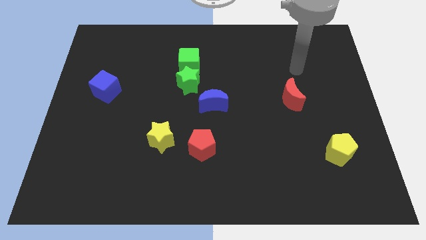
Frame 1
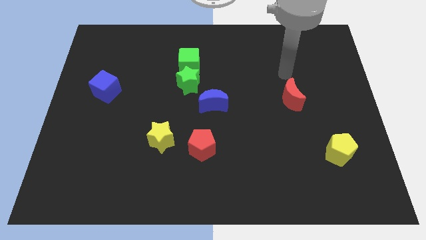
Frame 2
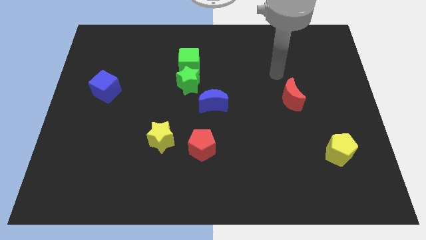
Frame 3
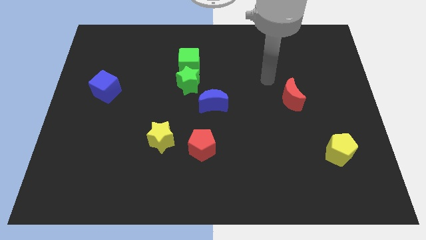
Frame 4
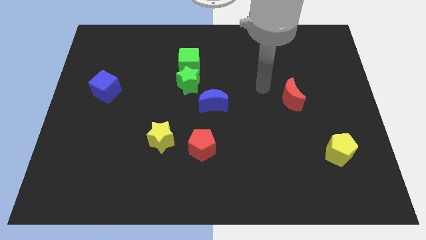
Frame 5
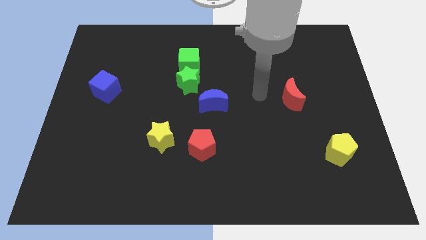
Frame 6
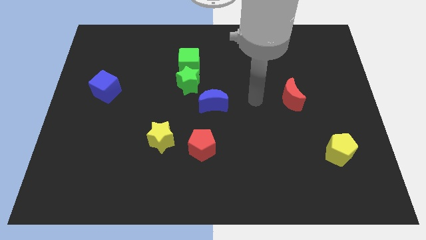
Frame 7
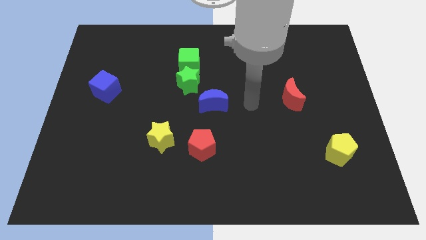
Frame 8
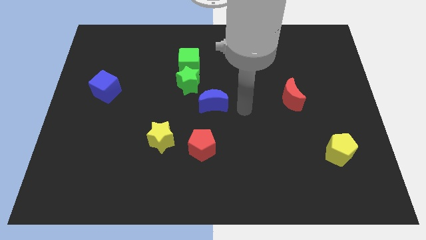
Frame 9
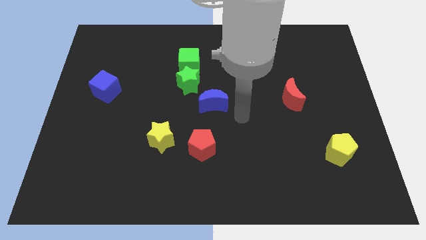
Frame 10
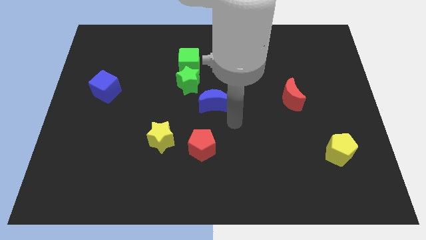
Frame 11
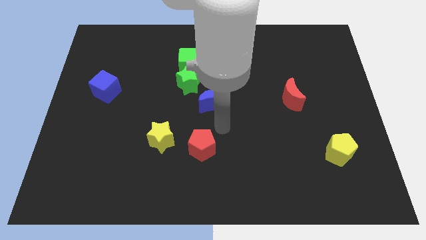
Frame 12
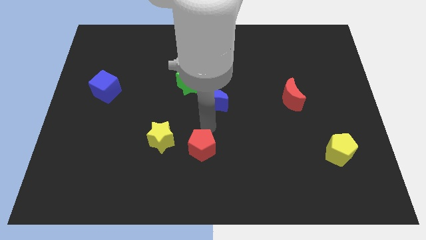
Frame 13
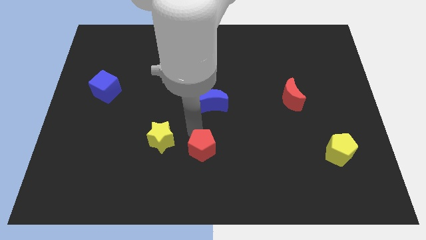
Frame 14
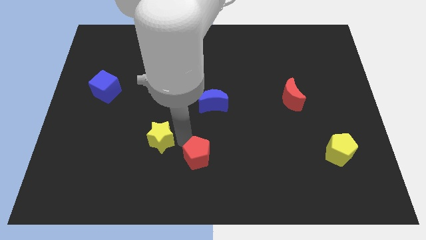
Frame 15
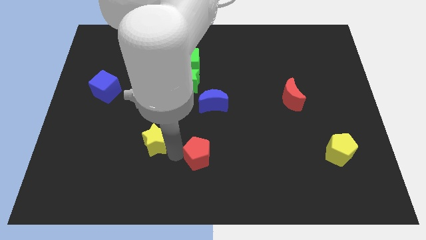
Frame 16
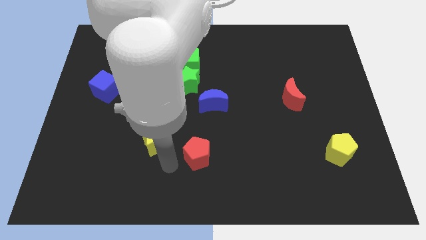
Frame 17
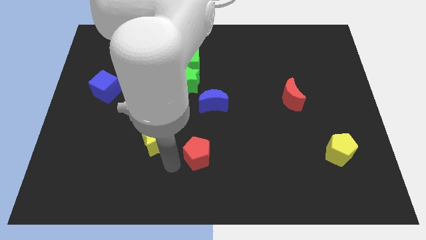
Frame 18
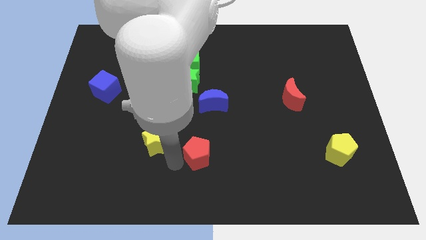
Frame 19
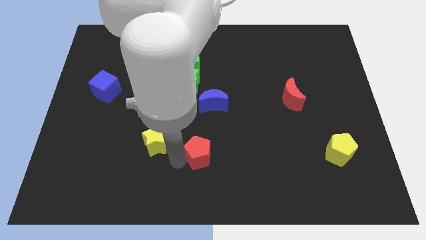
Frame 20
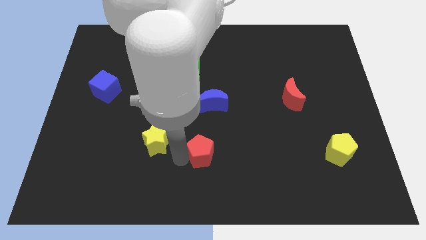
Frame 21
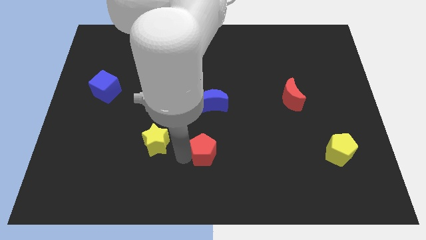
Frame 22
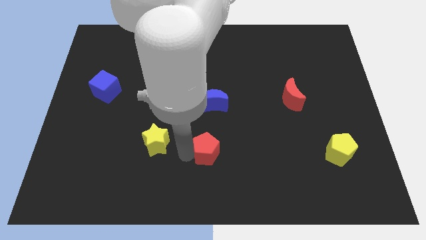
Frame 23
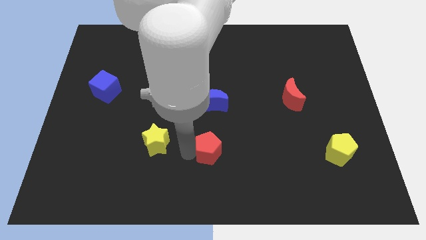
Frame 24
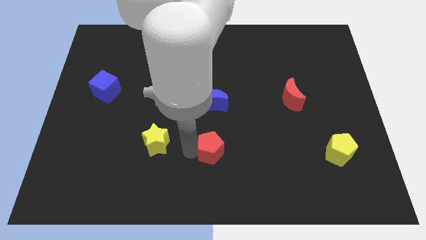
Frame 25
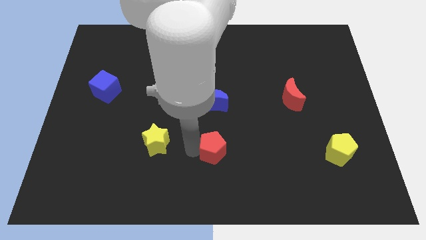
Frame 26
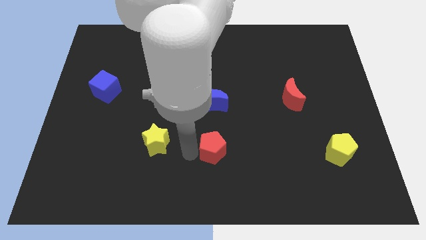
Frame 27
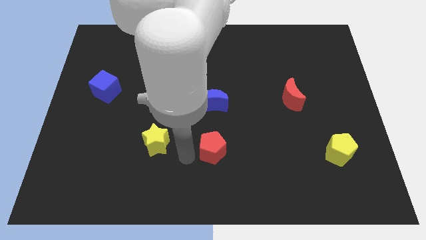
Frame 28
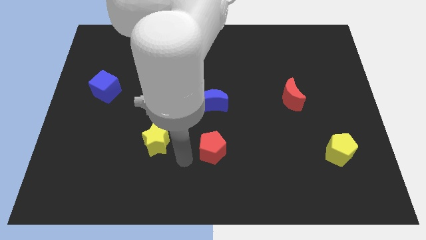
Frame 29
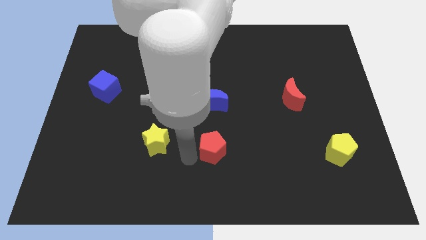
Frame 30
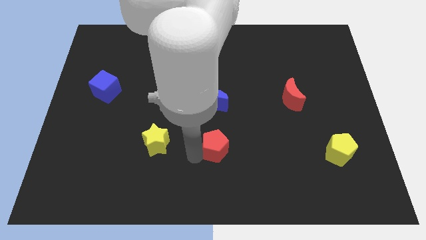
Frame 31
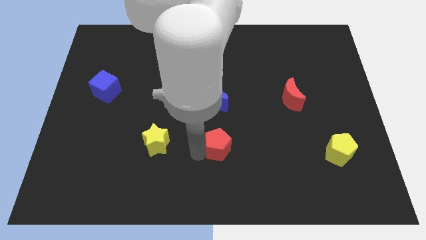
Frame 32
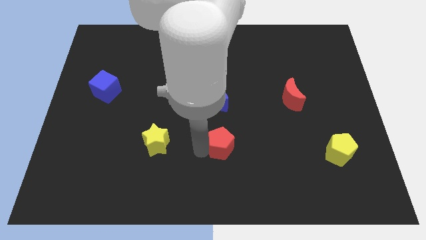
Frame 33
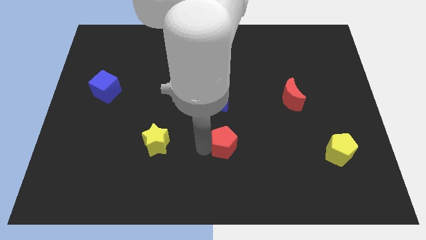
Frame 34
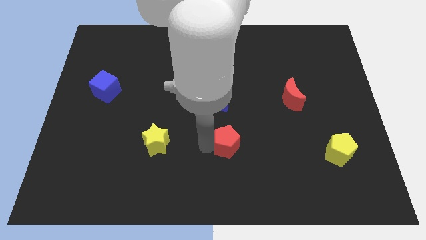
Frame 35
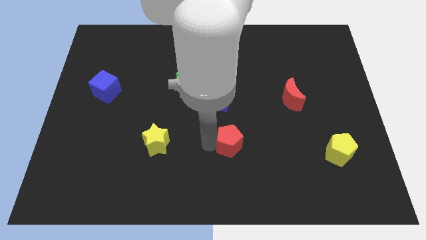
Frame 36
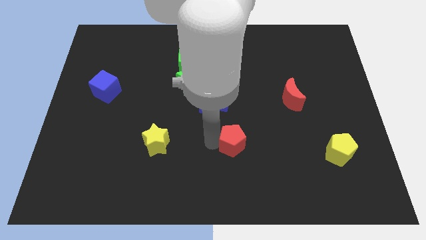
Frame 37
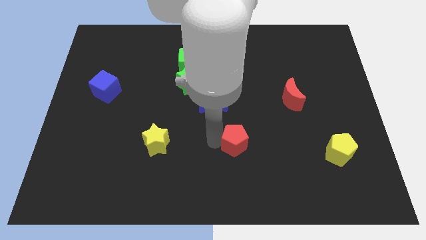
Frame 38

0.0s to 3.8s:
push the red pentagon right a bit

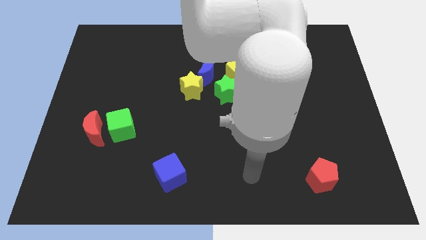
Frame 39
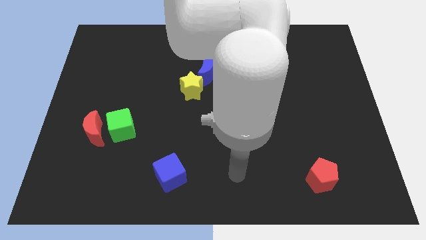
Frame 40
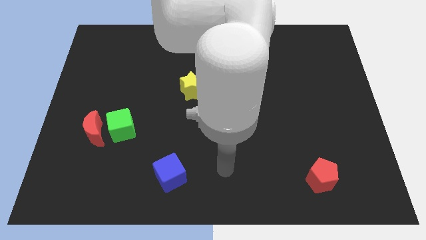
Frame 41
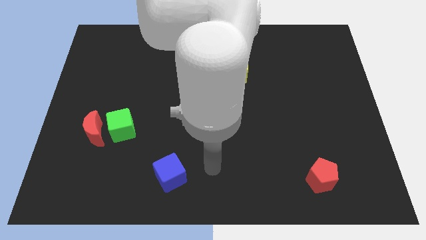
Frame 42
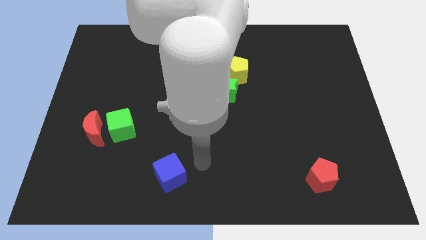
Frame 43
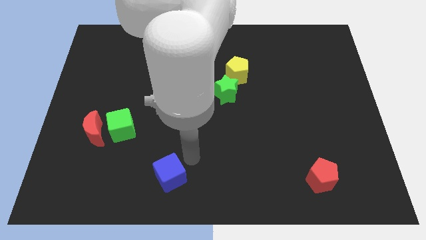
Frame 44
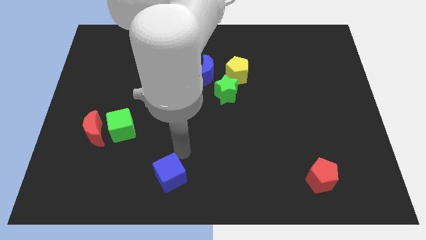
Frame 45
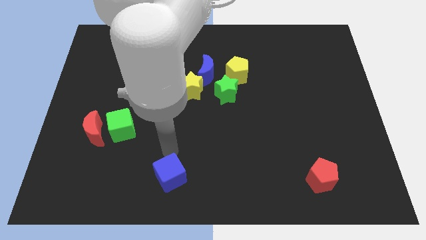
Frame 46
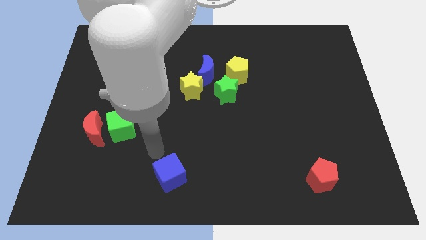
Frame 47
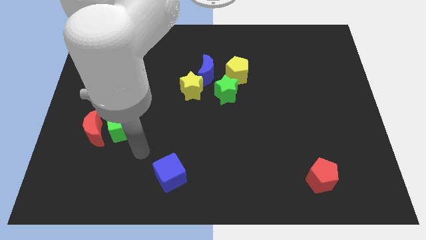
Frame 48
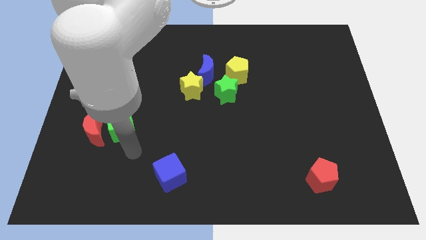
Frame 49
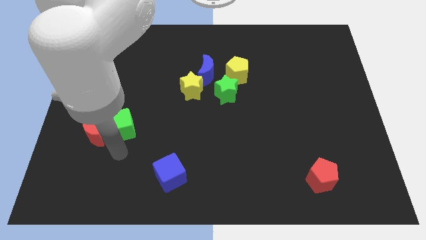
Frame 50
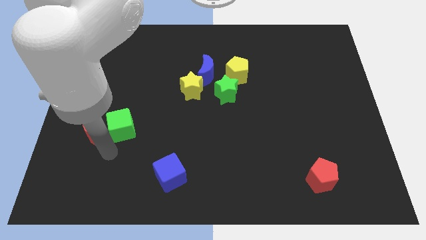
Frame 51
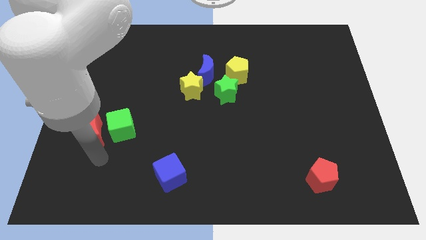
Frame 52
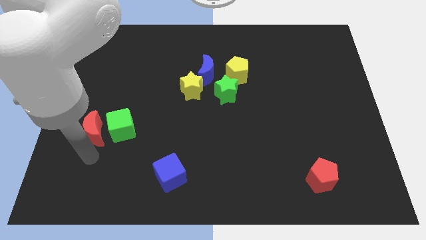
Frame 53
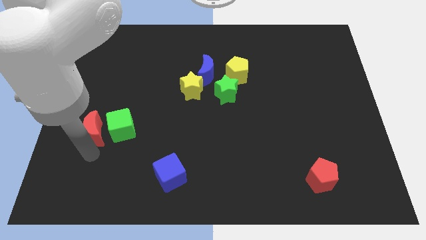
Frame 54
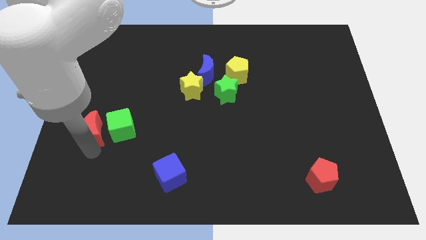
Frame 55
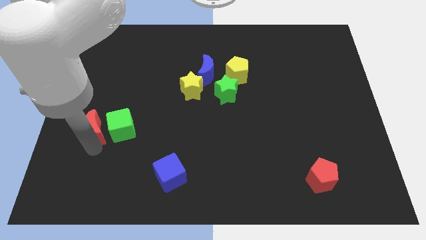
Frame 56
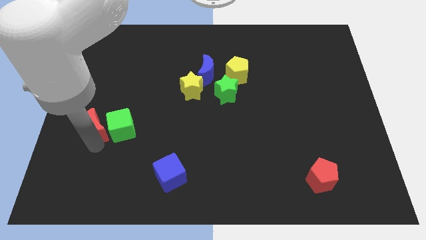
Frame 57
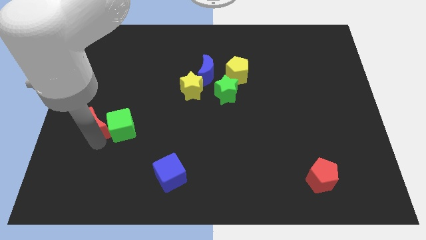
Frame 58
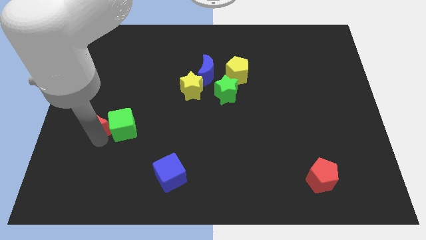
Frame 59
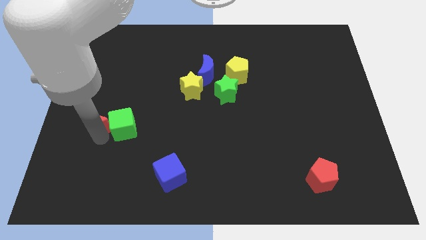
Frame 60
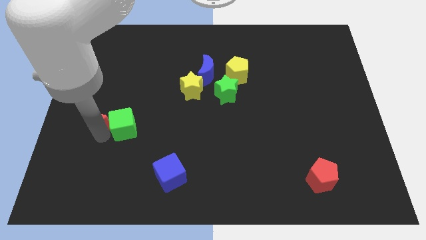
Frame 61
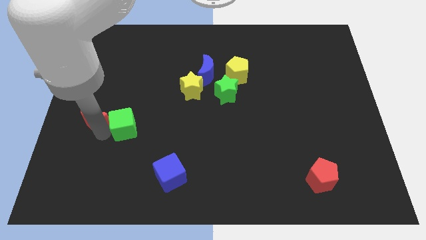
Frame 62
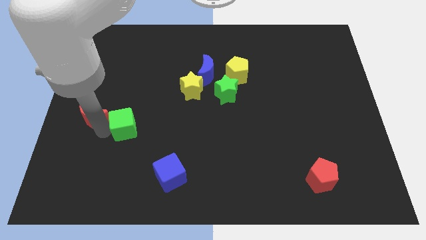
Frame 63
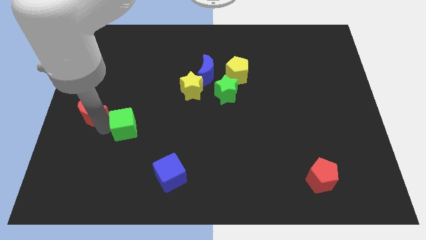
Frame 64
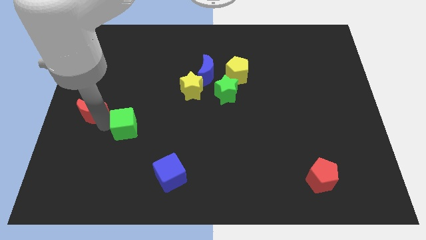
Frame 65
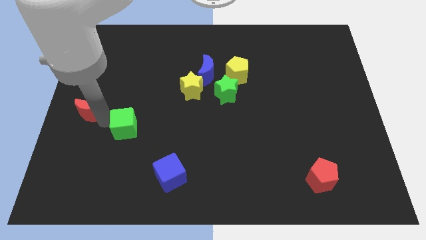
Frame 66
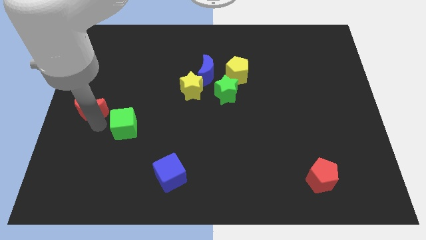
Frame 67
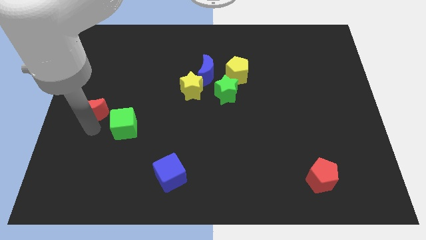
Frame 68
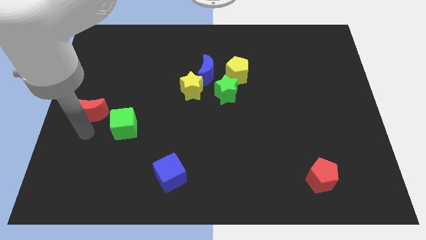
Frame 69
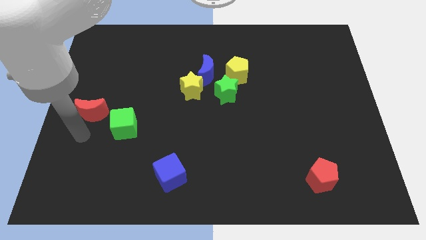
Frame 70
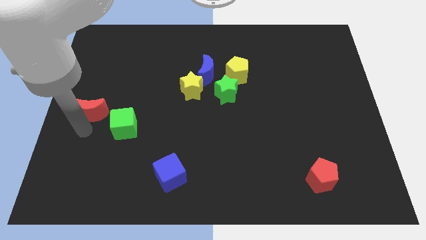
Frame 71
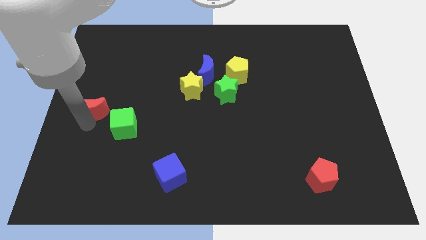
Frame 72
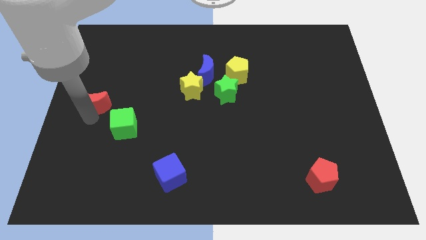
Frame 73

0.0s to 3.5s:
slightly slide the red moon upwards

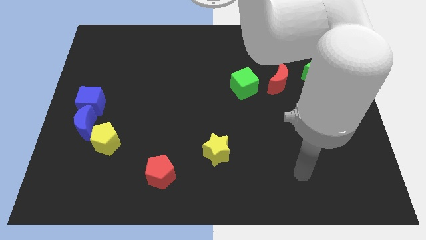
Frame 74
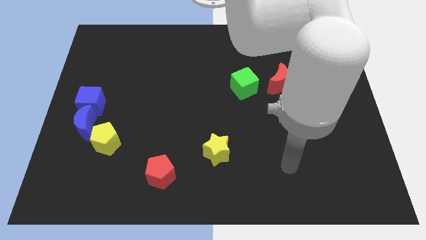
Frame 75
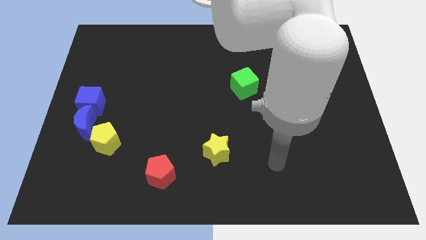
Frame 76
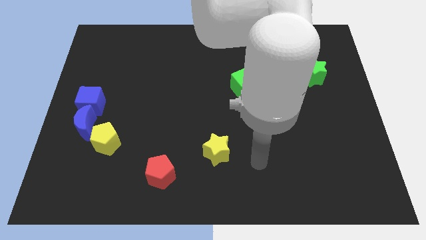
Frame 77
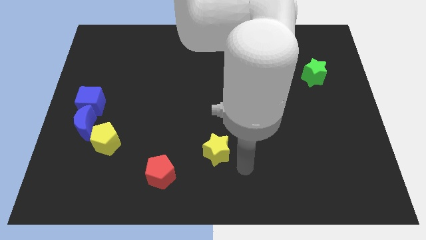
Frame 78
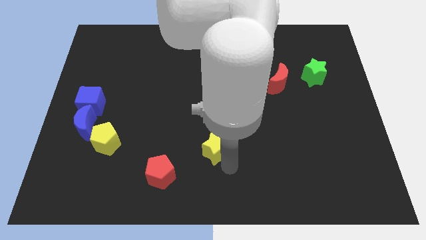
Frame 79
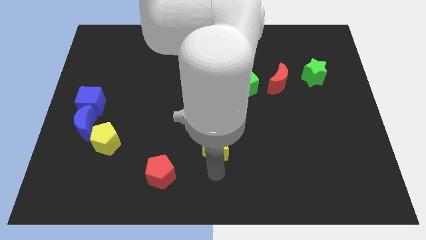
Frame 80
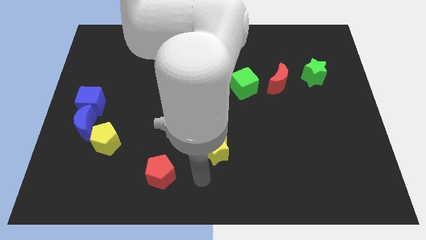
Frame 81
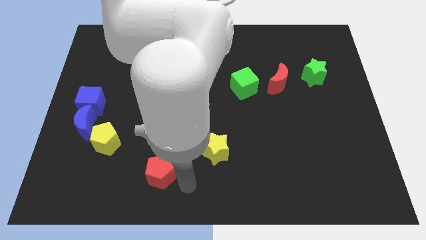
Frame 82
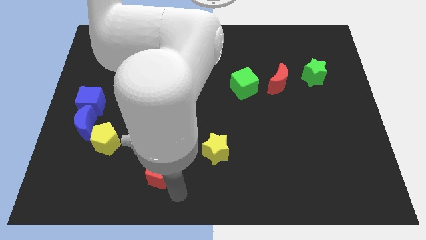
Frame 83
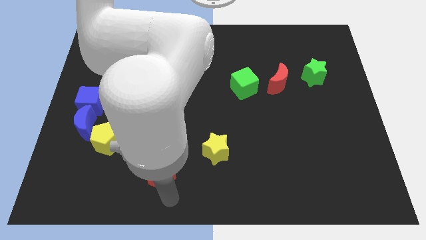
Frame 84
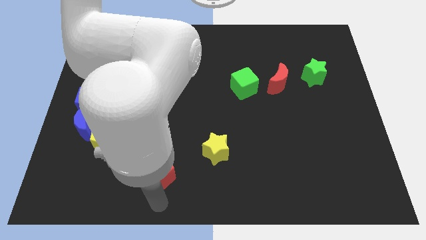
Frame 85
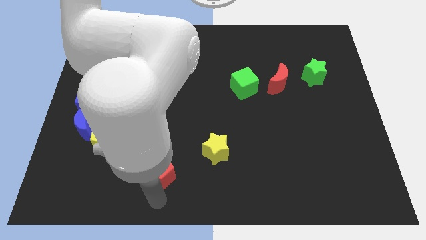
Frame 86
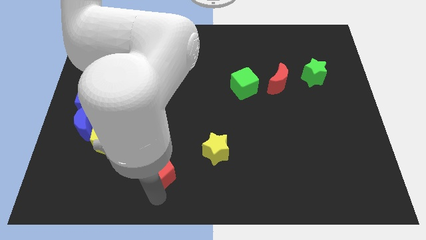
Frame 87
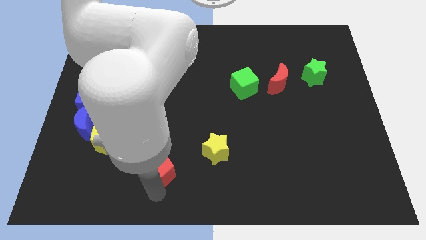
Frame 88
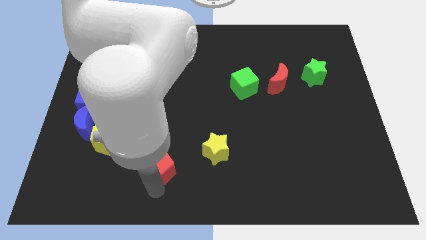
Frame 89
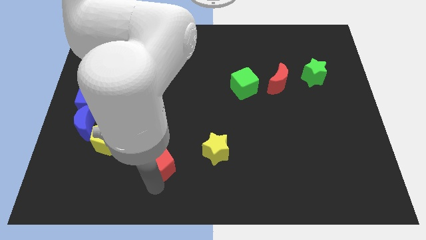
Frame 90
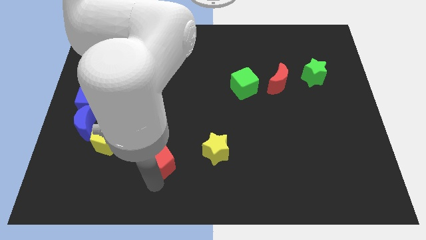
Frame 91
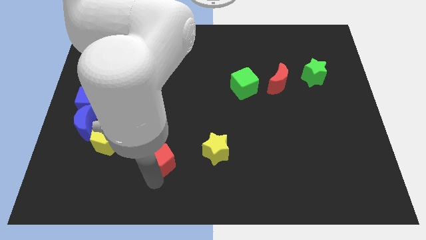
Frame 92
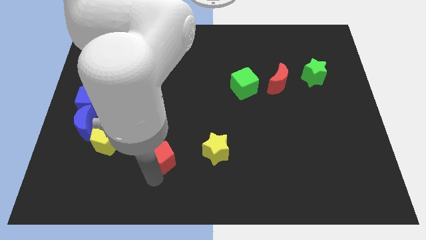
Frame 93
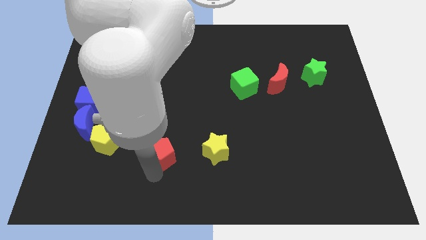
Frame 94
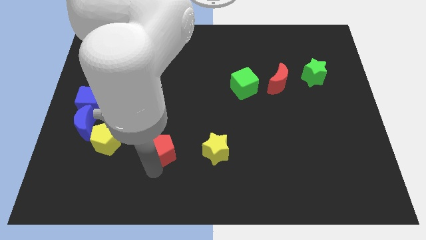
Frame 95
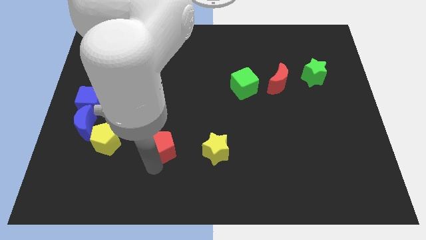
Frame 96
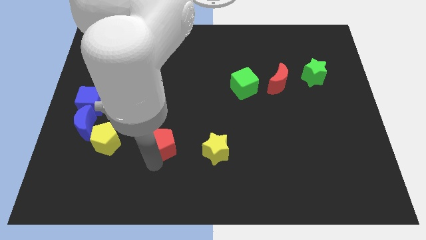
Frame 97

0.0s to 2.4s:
push the red pentagon a little bit up
